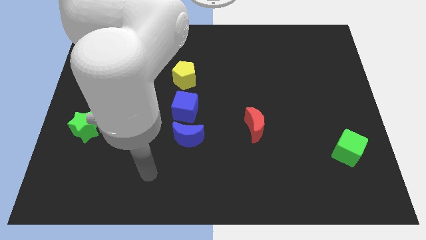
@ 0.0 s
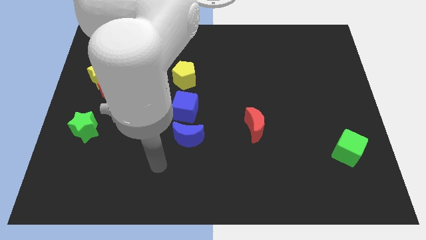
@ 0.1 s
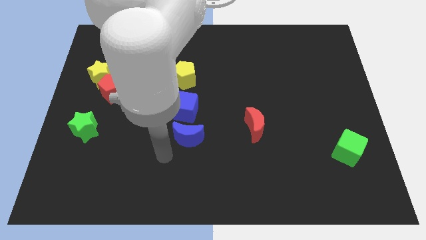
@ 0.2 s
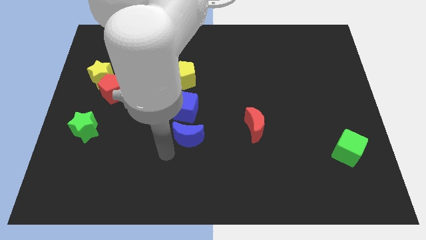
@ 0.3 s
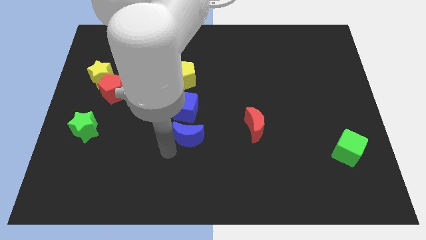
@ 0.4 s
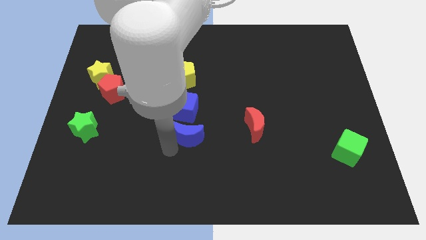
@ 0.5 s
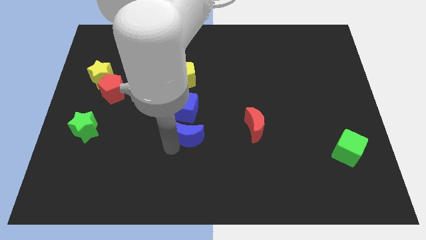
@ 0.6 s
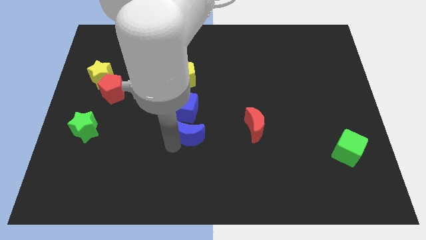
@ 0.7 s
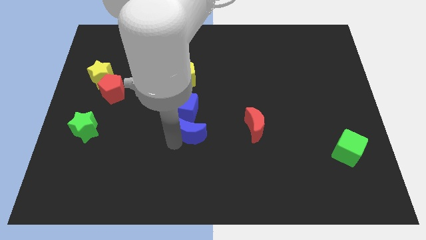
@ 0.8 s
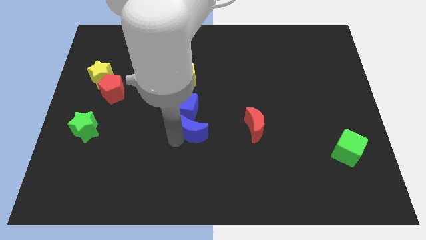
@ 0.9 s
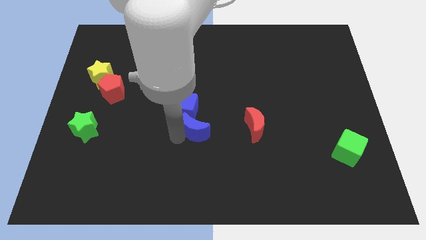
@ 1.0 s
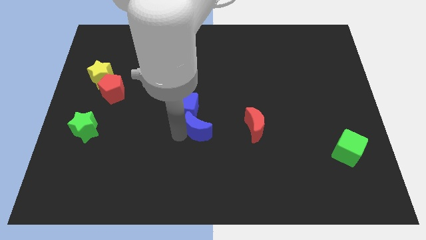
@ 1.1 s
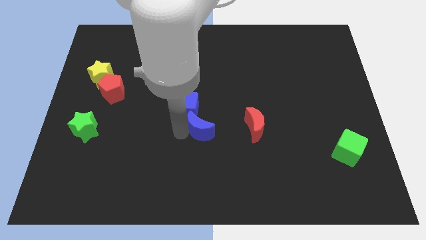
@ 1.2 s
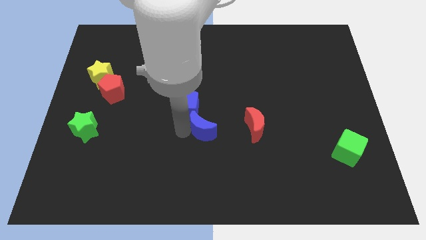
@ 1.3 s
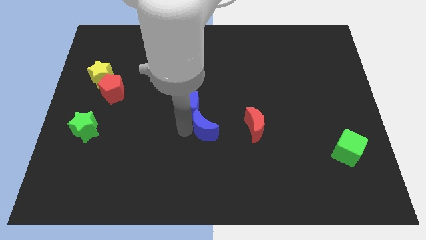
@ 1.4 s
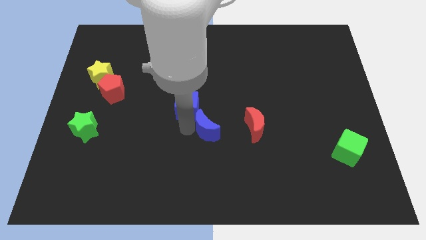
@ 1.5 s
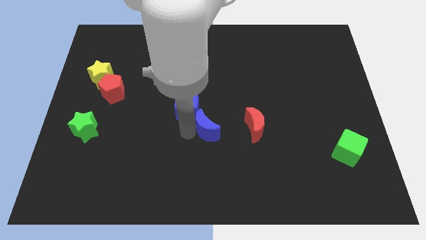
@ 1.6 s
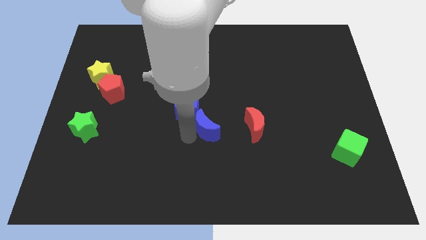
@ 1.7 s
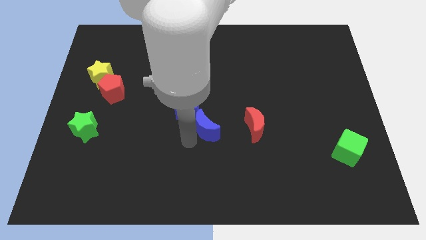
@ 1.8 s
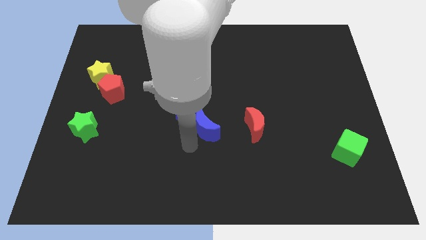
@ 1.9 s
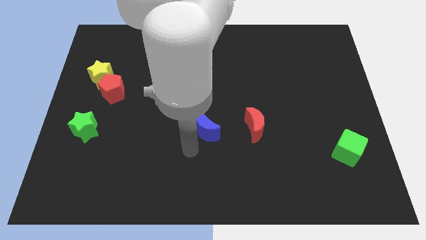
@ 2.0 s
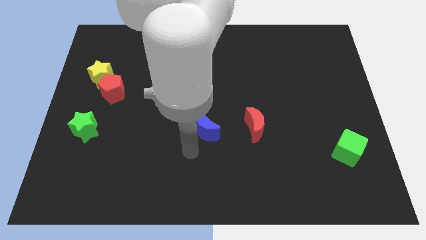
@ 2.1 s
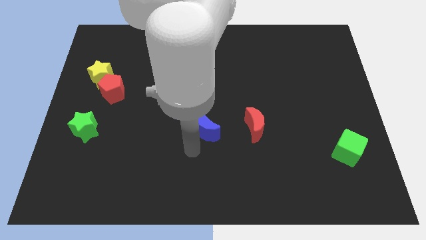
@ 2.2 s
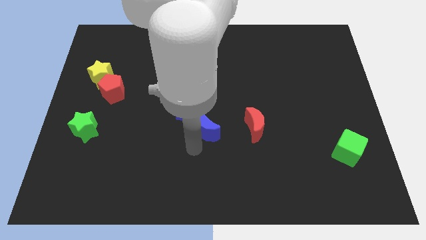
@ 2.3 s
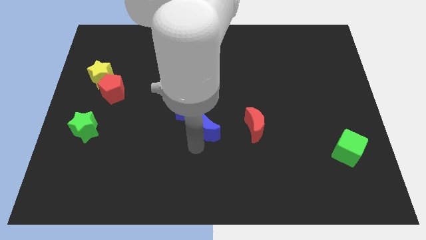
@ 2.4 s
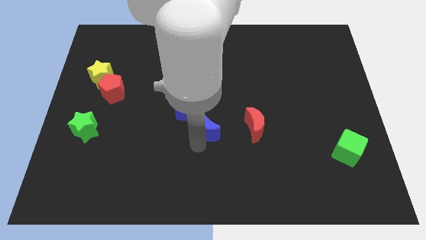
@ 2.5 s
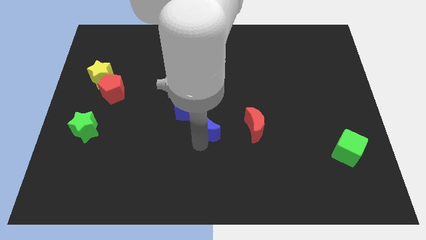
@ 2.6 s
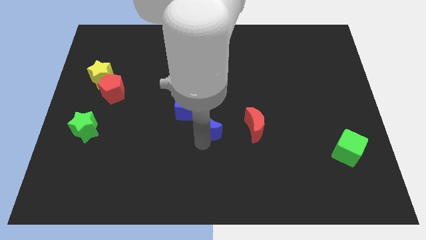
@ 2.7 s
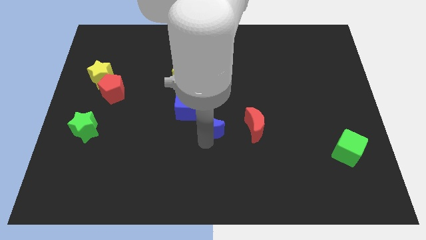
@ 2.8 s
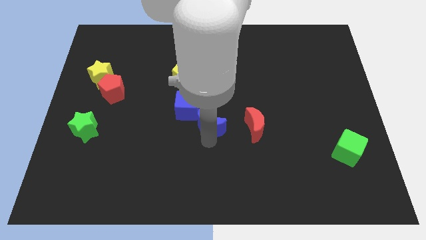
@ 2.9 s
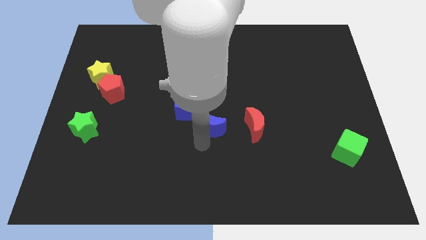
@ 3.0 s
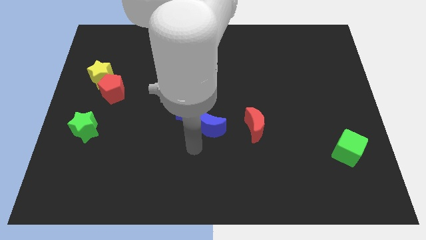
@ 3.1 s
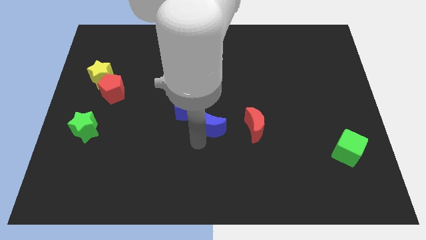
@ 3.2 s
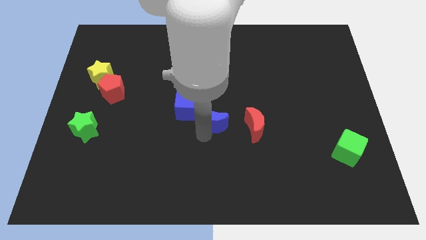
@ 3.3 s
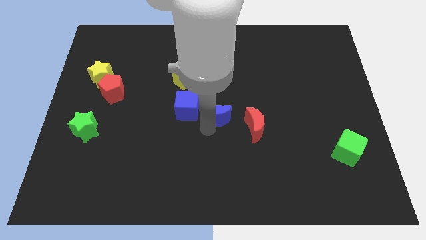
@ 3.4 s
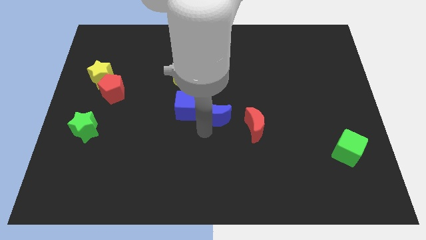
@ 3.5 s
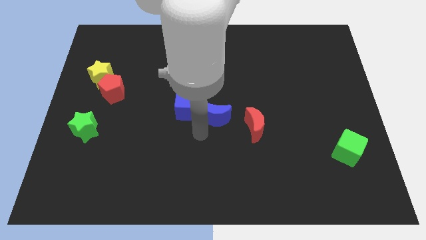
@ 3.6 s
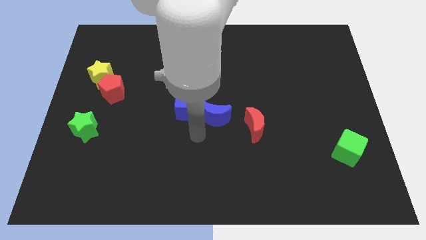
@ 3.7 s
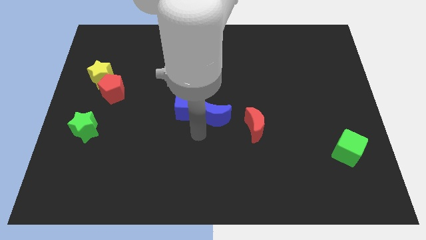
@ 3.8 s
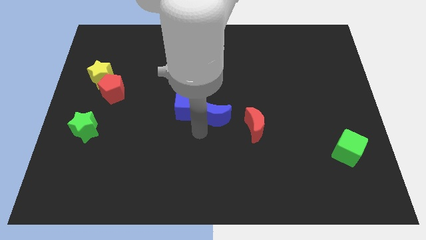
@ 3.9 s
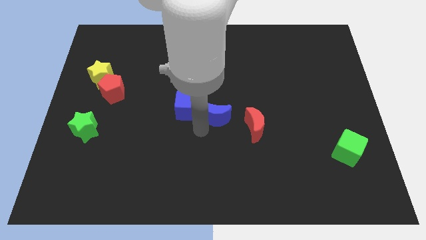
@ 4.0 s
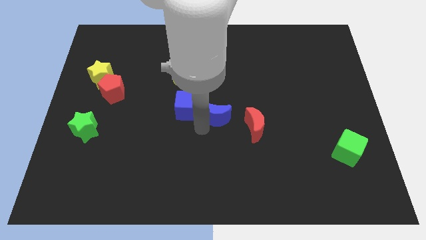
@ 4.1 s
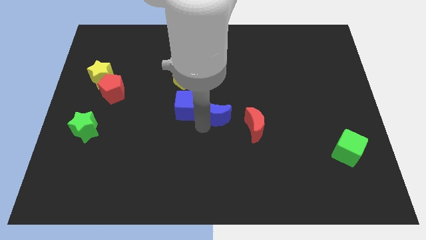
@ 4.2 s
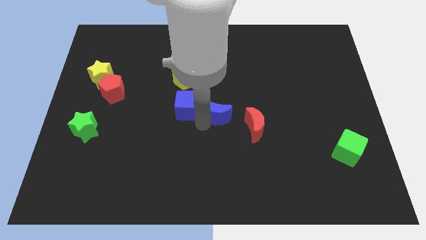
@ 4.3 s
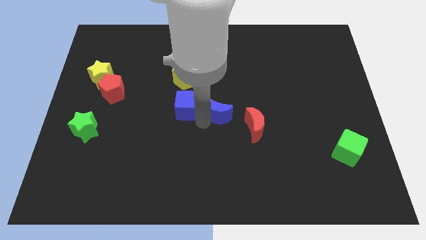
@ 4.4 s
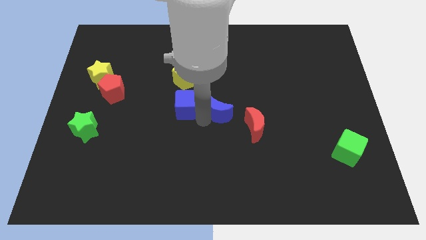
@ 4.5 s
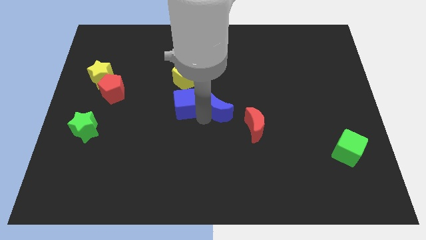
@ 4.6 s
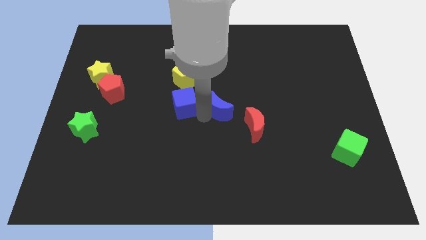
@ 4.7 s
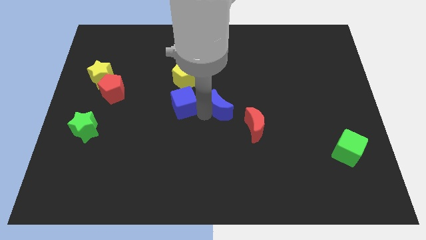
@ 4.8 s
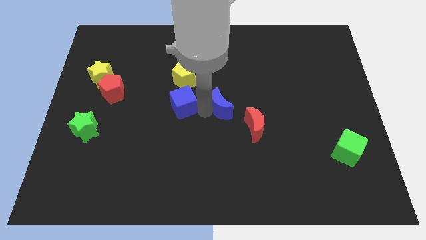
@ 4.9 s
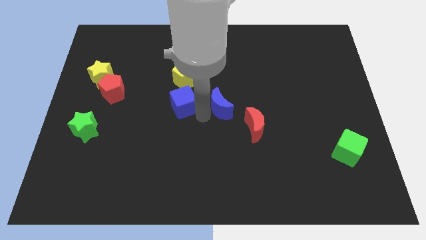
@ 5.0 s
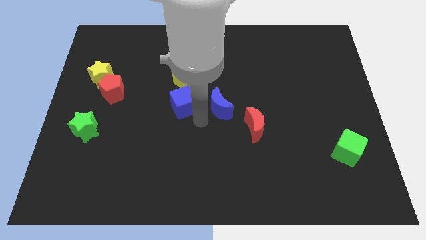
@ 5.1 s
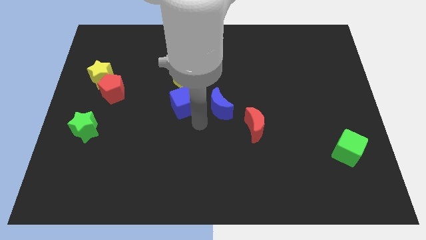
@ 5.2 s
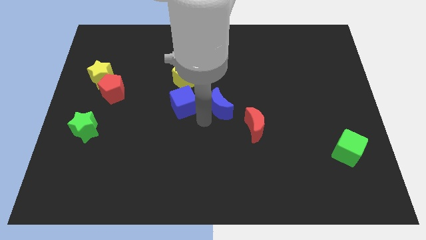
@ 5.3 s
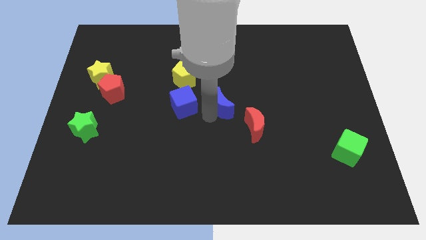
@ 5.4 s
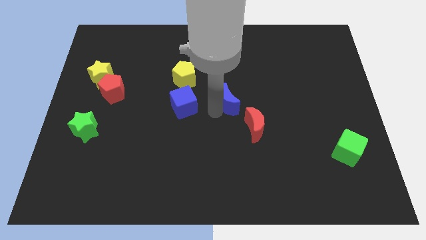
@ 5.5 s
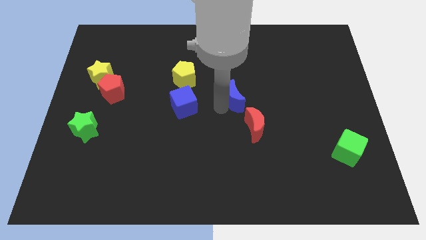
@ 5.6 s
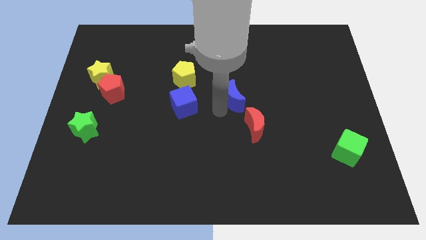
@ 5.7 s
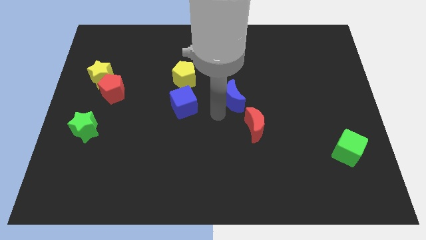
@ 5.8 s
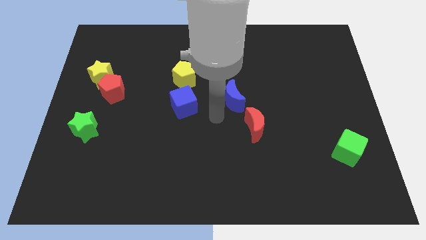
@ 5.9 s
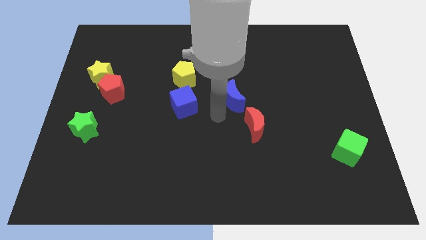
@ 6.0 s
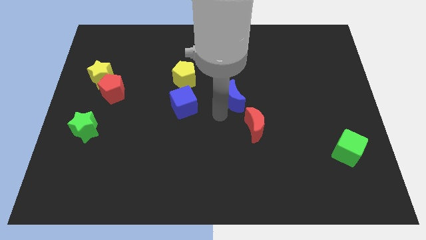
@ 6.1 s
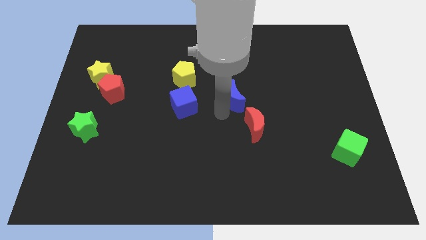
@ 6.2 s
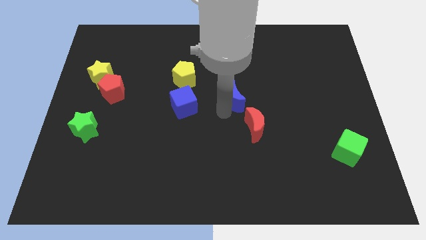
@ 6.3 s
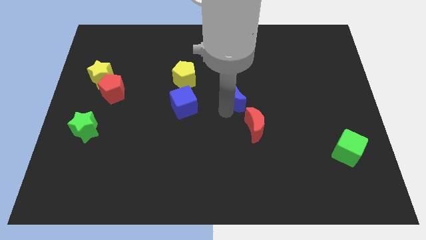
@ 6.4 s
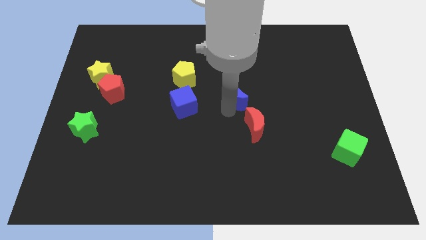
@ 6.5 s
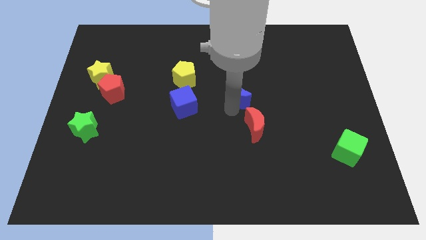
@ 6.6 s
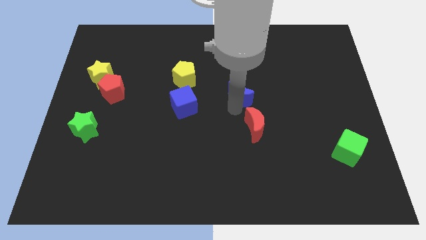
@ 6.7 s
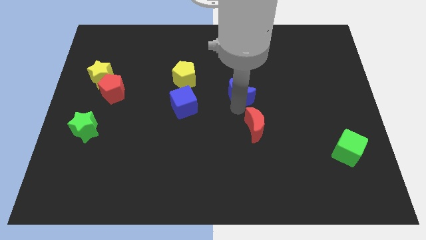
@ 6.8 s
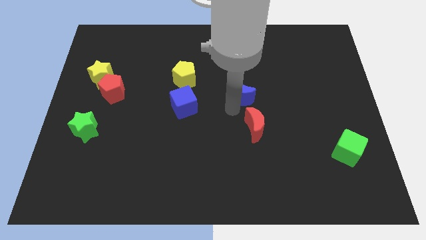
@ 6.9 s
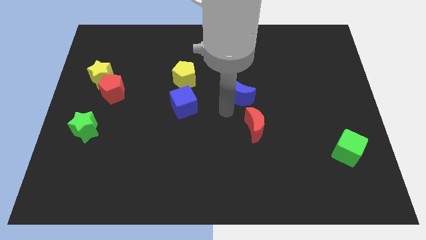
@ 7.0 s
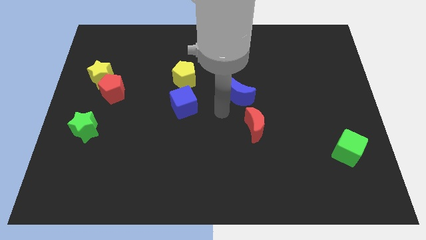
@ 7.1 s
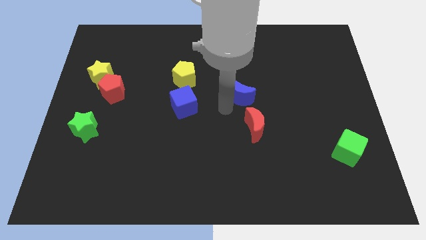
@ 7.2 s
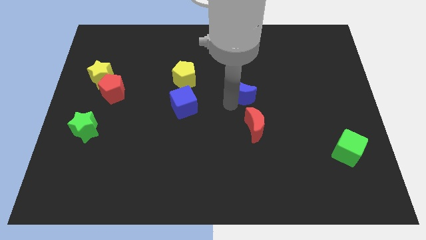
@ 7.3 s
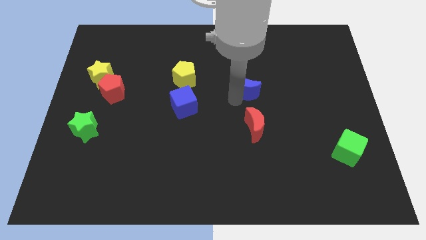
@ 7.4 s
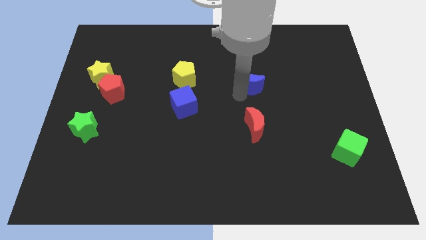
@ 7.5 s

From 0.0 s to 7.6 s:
move the blue moon up and to the right

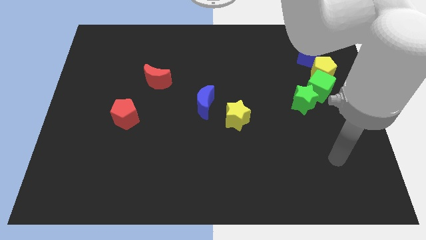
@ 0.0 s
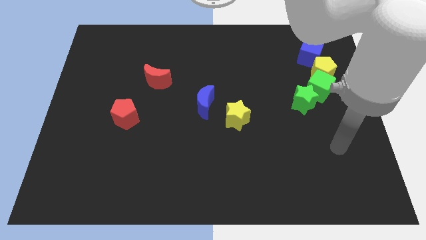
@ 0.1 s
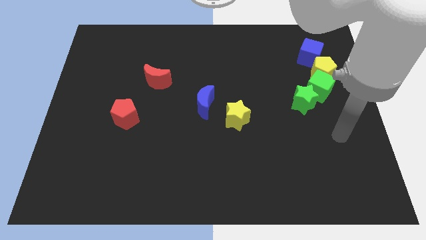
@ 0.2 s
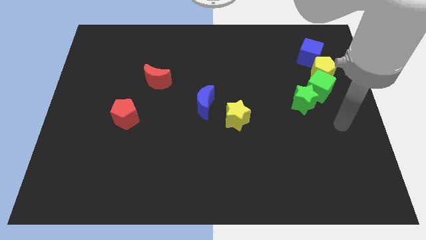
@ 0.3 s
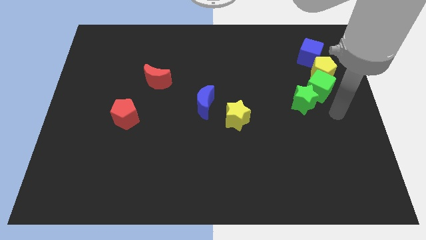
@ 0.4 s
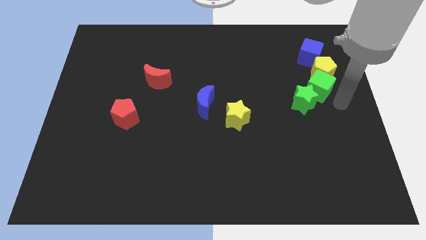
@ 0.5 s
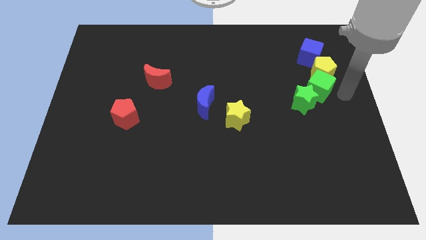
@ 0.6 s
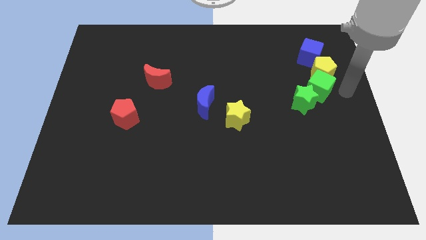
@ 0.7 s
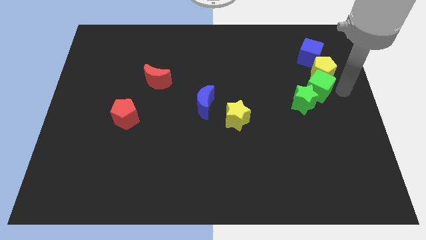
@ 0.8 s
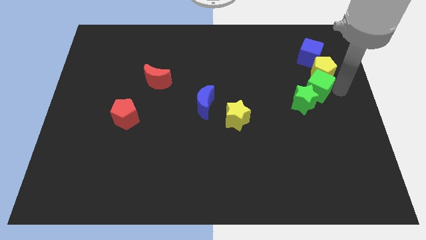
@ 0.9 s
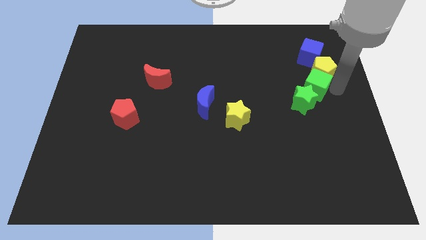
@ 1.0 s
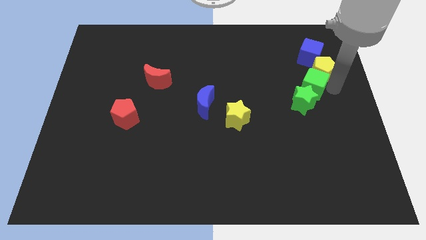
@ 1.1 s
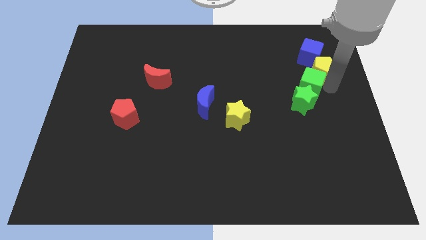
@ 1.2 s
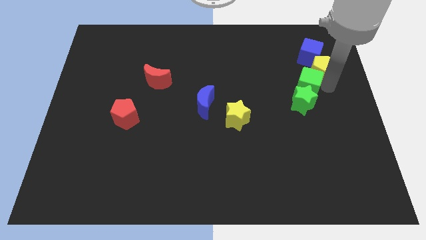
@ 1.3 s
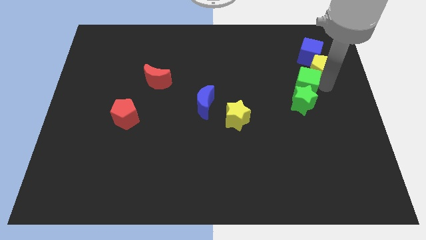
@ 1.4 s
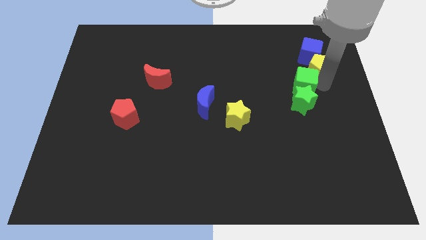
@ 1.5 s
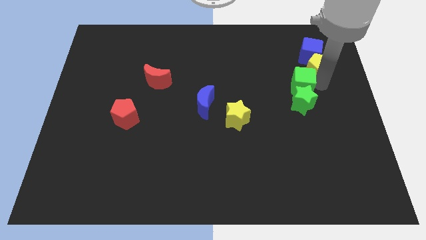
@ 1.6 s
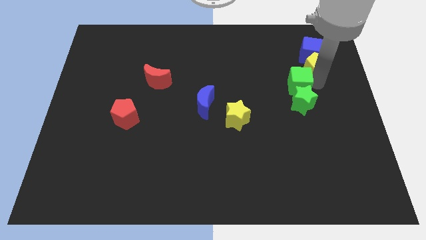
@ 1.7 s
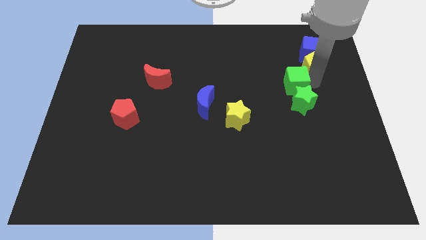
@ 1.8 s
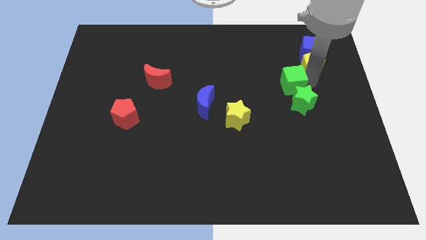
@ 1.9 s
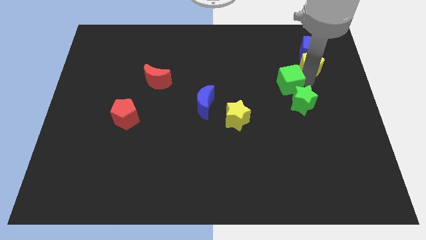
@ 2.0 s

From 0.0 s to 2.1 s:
push the green cube a little left
